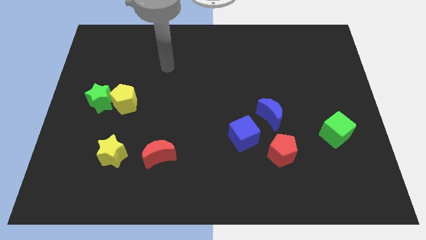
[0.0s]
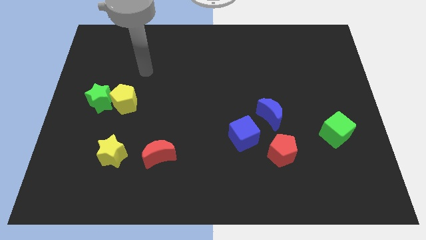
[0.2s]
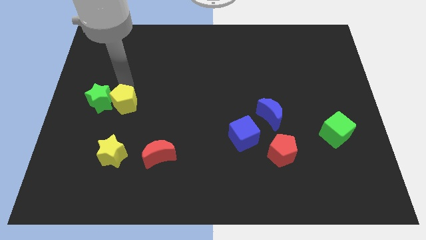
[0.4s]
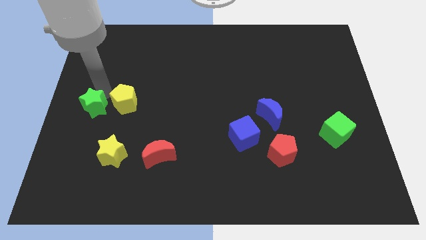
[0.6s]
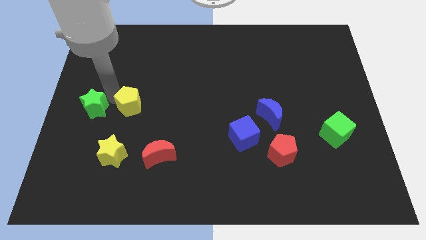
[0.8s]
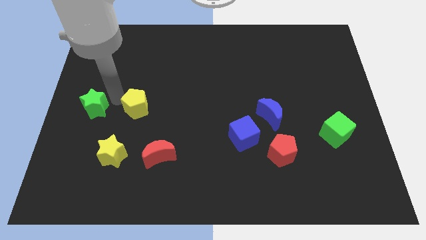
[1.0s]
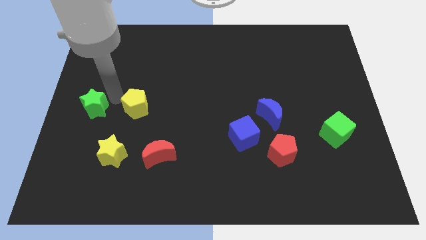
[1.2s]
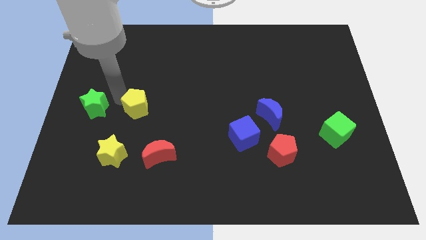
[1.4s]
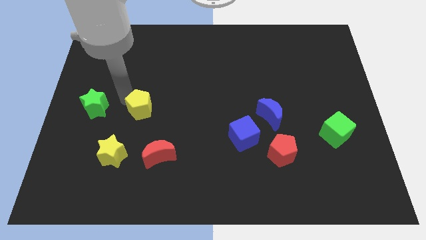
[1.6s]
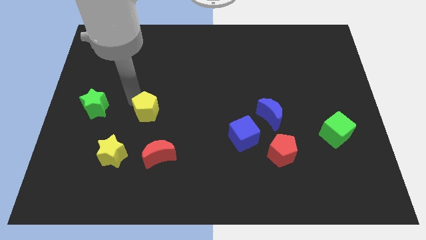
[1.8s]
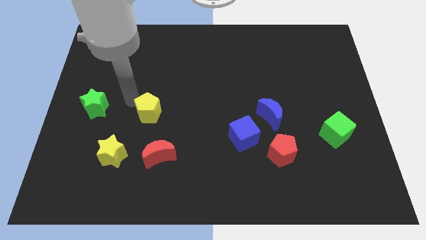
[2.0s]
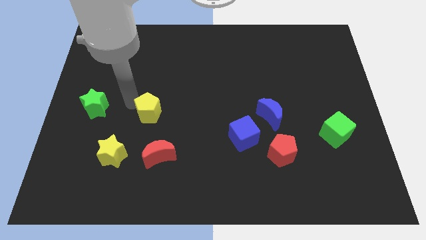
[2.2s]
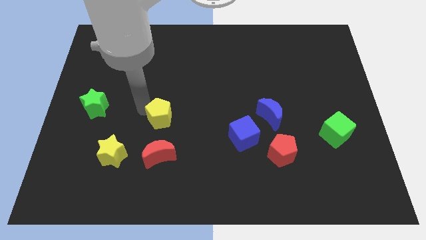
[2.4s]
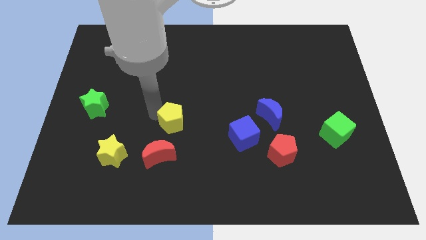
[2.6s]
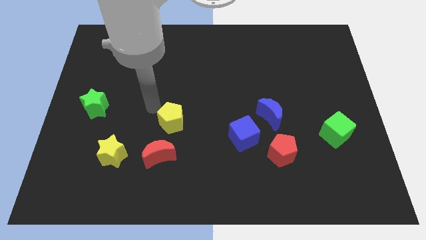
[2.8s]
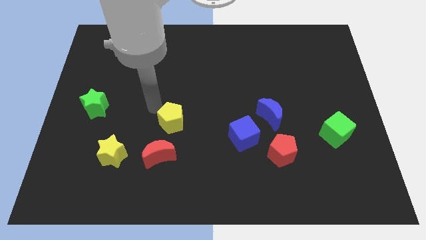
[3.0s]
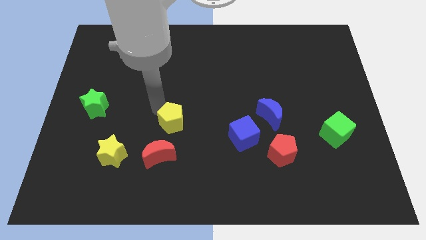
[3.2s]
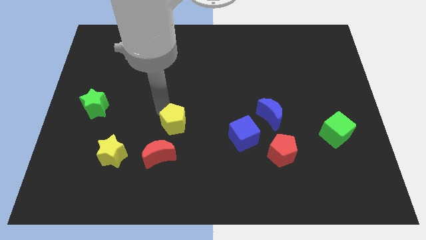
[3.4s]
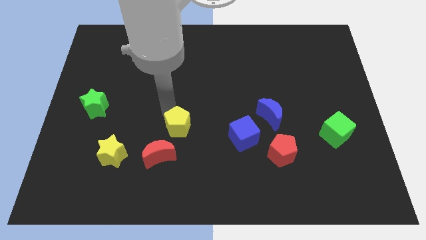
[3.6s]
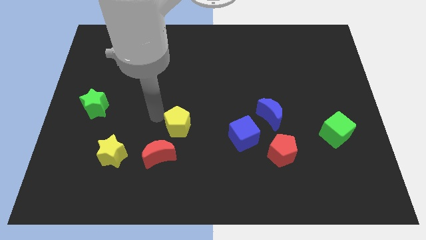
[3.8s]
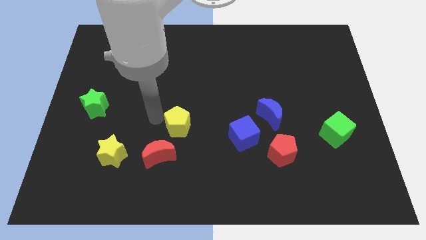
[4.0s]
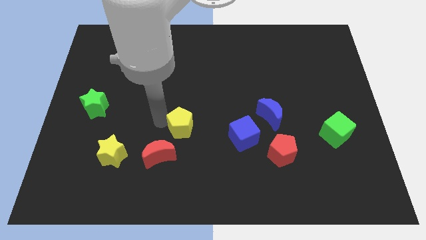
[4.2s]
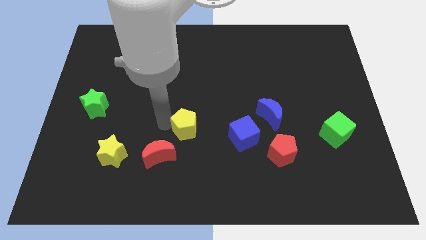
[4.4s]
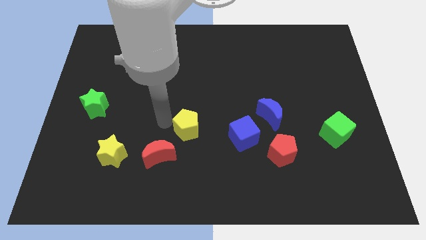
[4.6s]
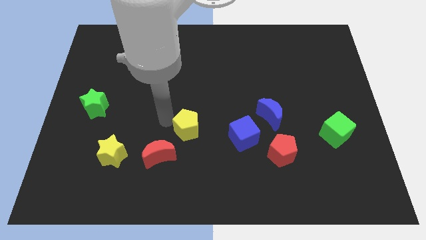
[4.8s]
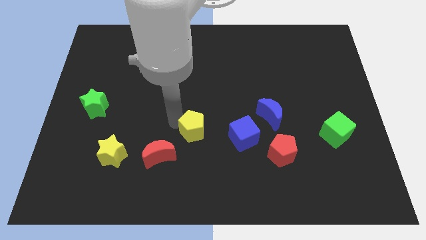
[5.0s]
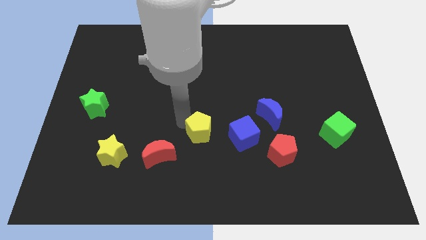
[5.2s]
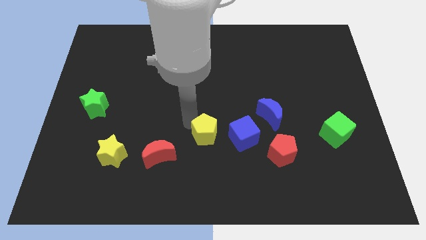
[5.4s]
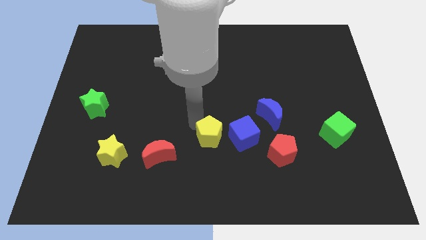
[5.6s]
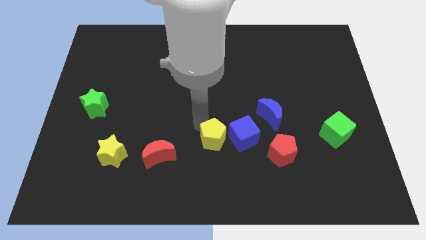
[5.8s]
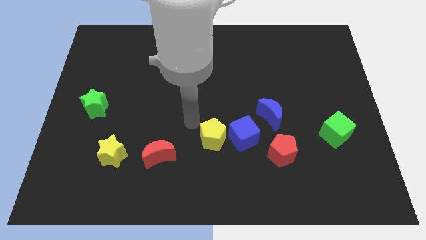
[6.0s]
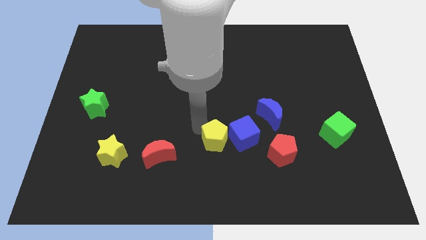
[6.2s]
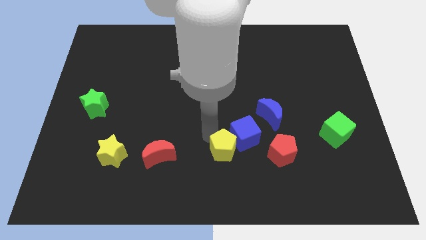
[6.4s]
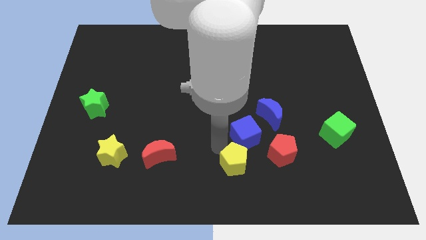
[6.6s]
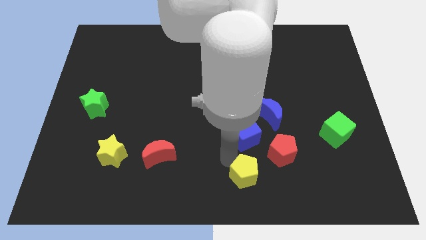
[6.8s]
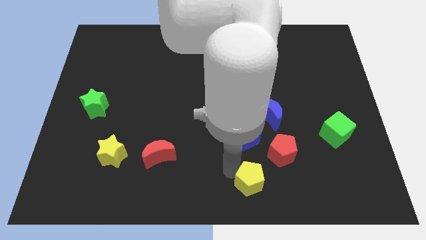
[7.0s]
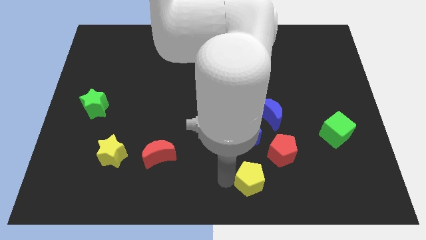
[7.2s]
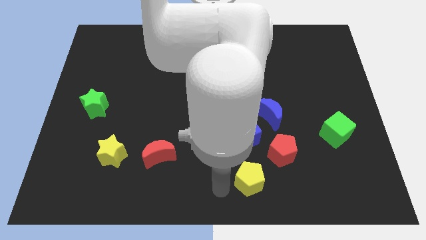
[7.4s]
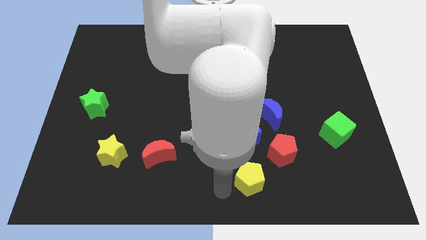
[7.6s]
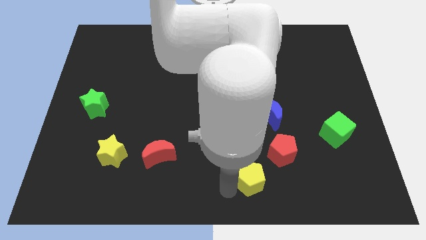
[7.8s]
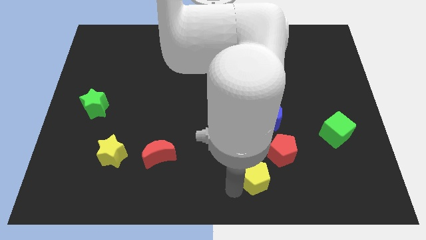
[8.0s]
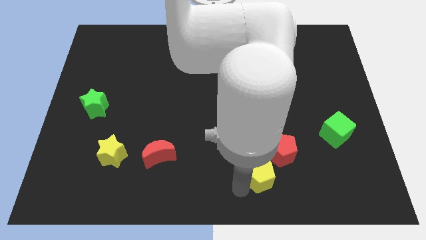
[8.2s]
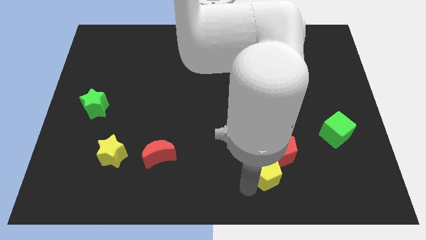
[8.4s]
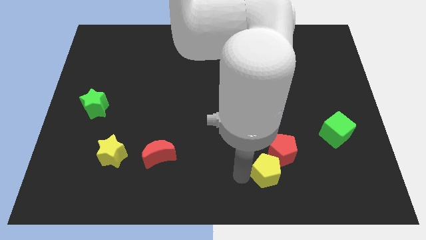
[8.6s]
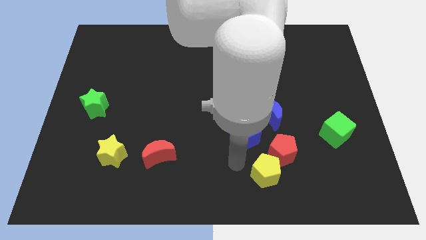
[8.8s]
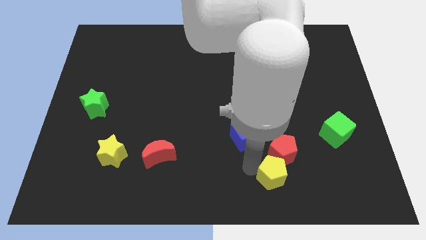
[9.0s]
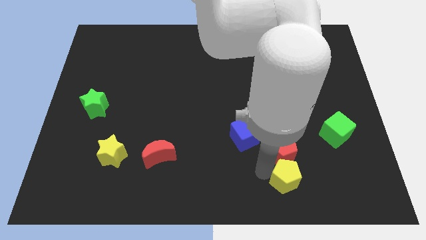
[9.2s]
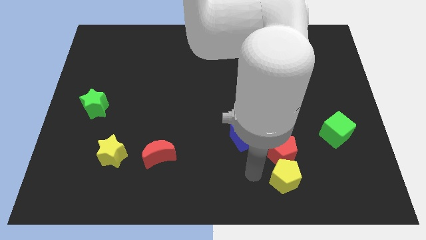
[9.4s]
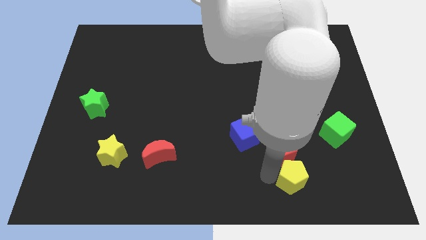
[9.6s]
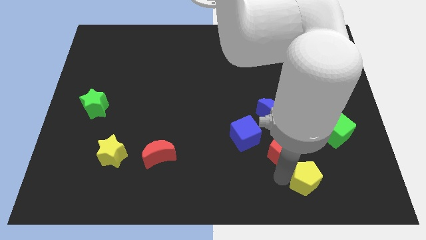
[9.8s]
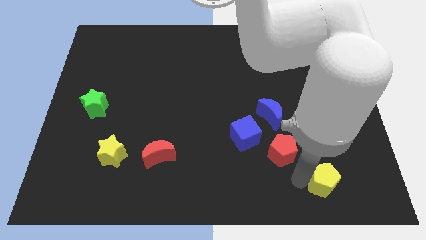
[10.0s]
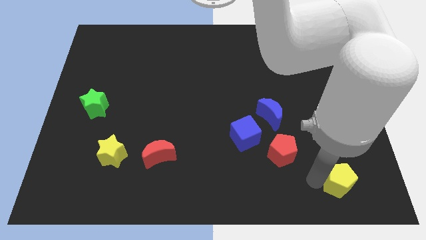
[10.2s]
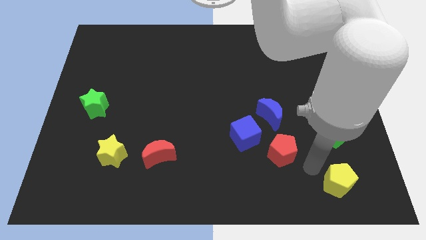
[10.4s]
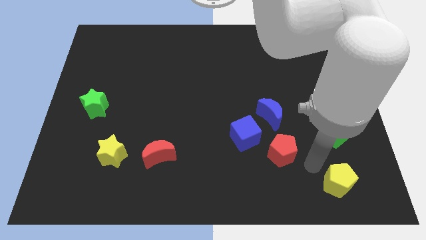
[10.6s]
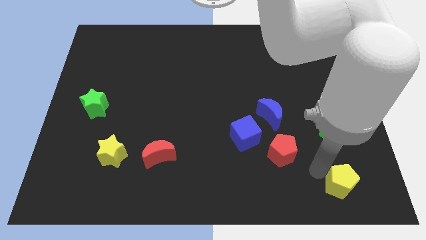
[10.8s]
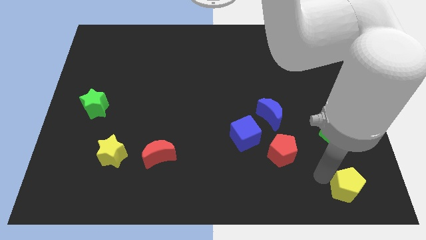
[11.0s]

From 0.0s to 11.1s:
push the yellow pentagon to the bottom right

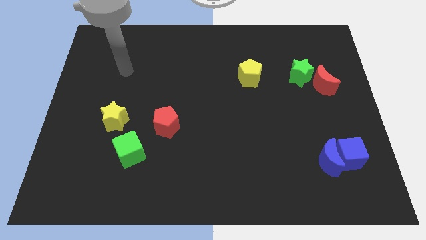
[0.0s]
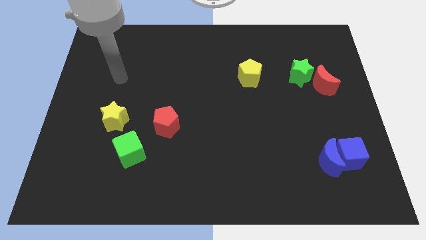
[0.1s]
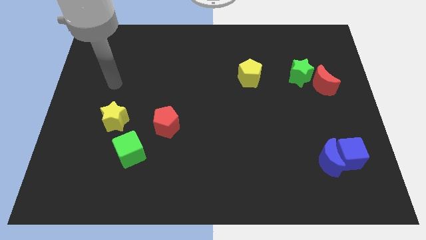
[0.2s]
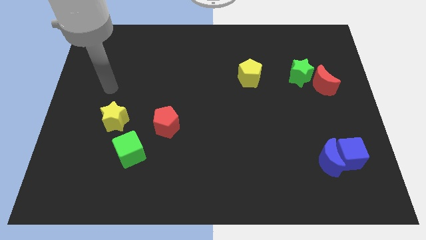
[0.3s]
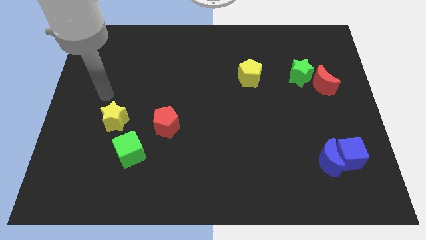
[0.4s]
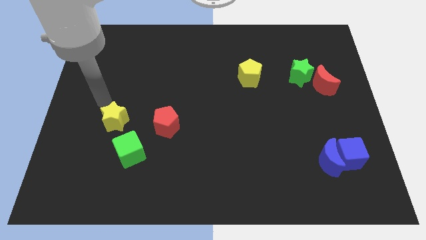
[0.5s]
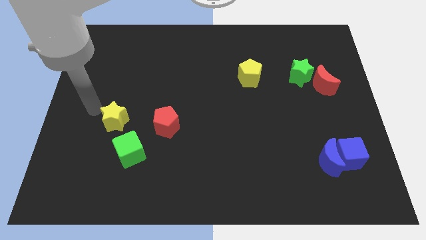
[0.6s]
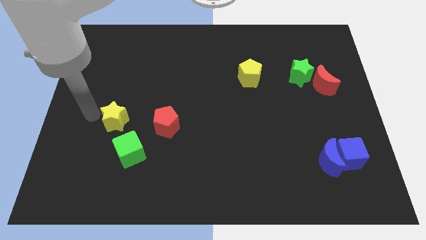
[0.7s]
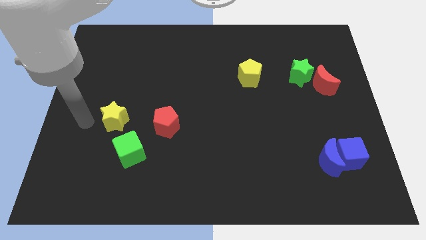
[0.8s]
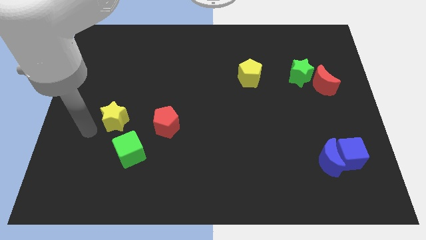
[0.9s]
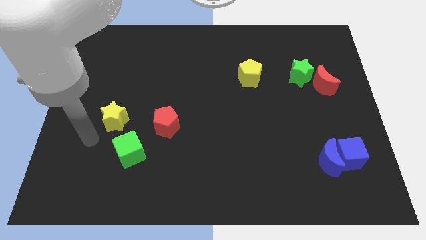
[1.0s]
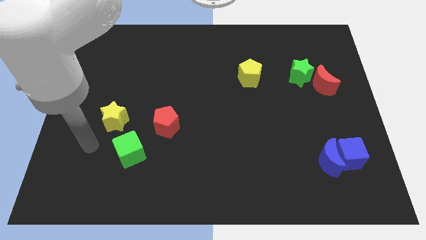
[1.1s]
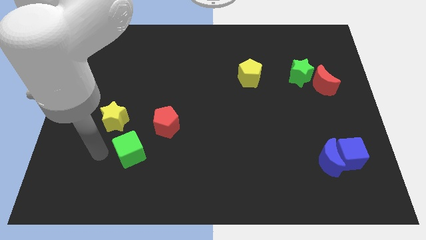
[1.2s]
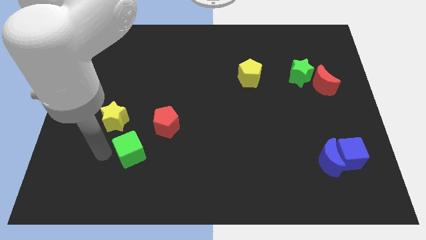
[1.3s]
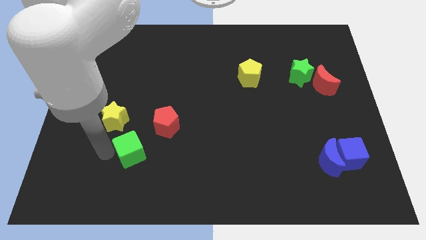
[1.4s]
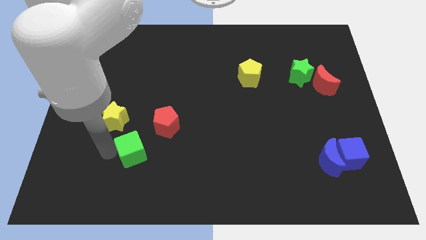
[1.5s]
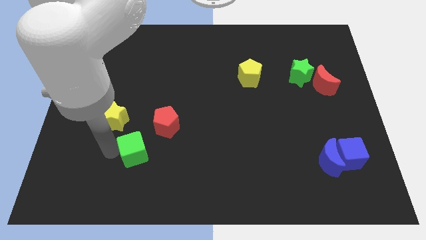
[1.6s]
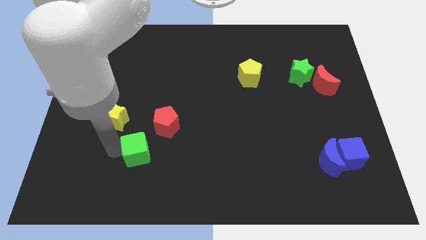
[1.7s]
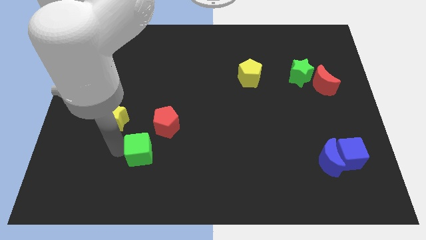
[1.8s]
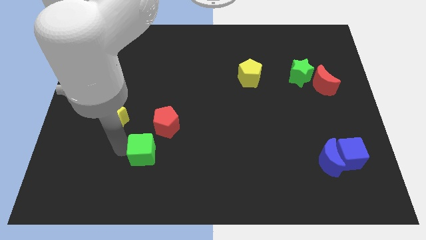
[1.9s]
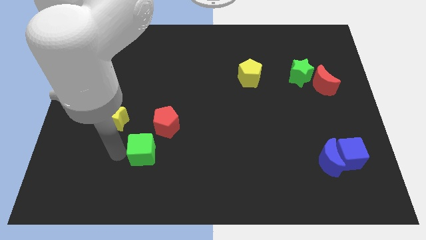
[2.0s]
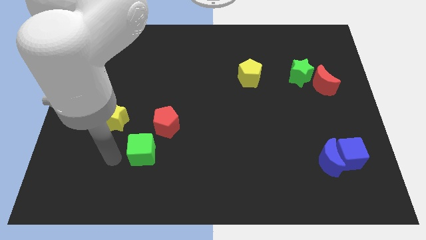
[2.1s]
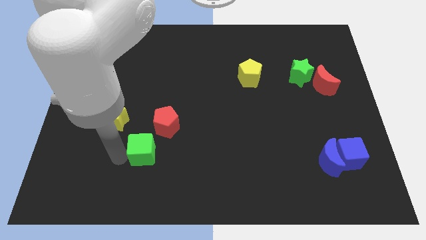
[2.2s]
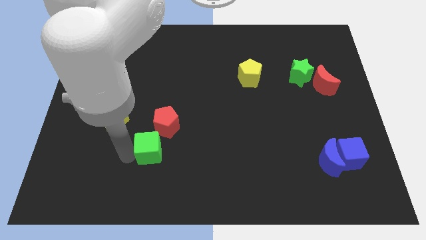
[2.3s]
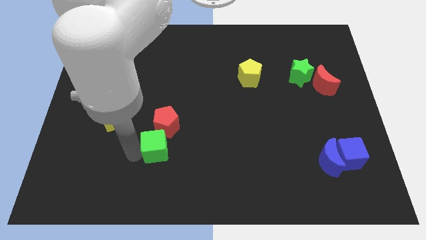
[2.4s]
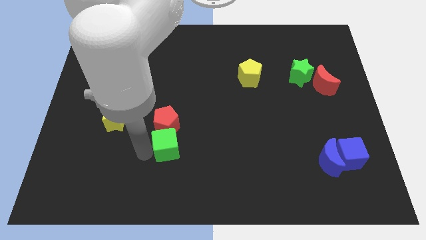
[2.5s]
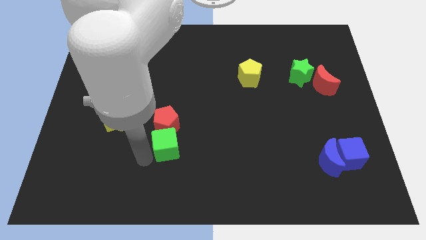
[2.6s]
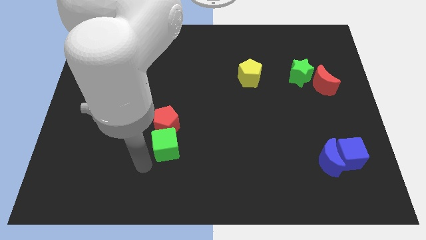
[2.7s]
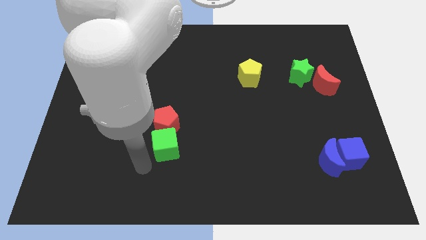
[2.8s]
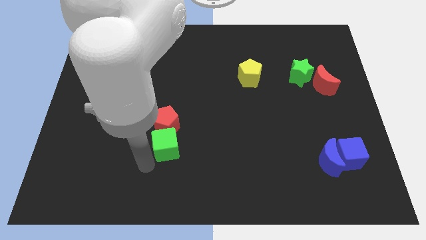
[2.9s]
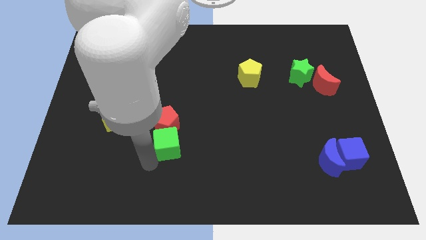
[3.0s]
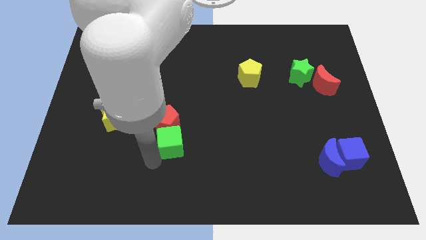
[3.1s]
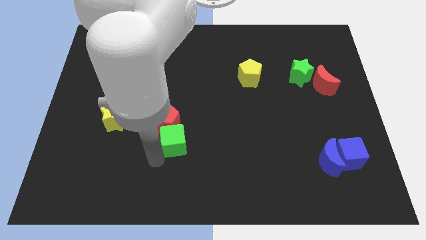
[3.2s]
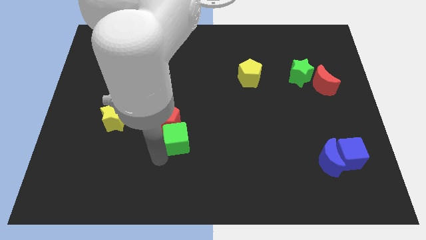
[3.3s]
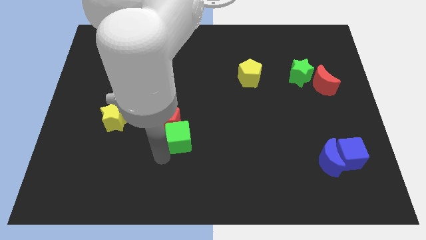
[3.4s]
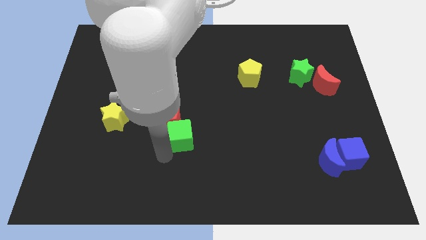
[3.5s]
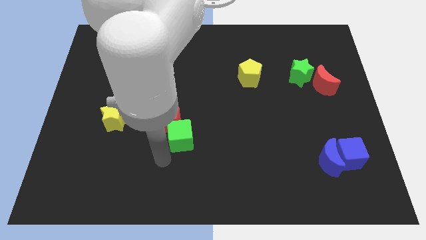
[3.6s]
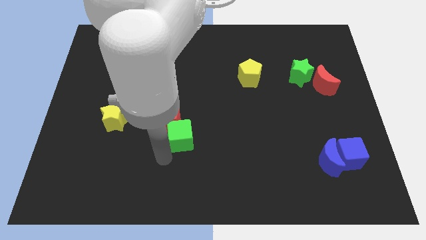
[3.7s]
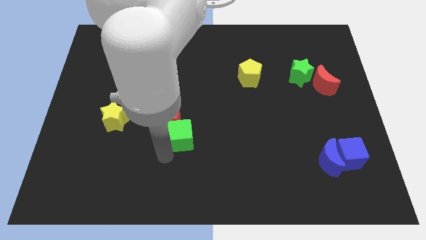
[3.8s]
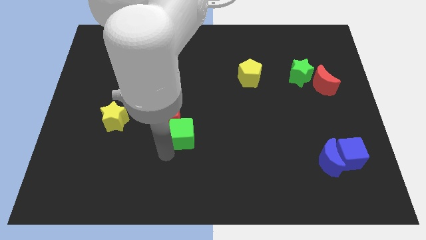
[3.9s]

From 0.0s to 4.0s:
put the green cube to the middle
